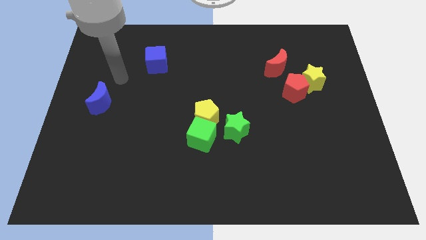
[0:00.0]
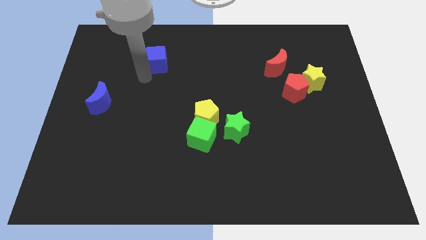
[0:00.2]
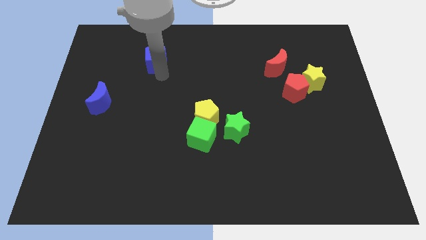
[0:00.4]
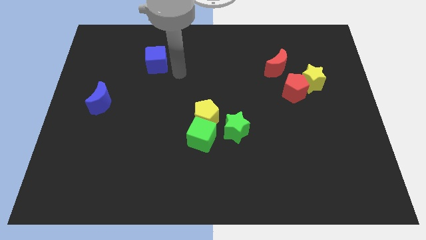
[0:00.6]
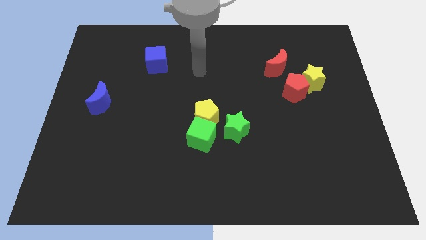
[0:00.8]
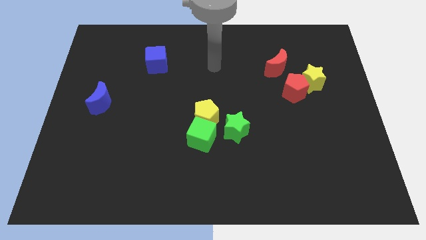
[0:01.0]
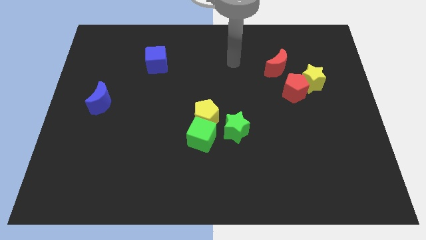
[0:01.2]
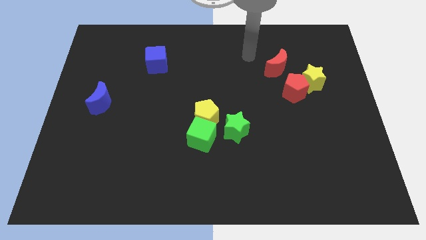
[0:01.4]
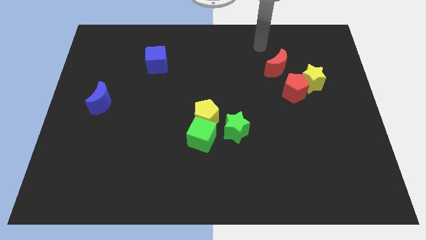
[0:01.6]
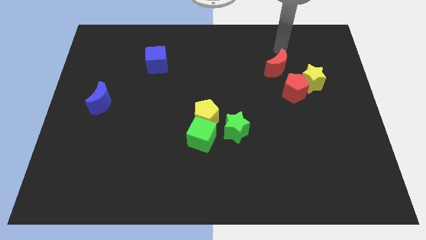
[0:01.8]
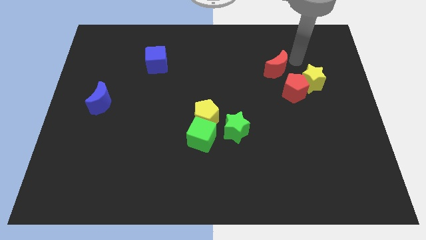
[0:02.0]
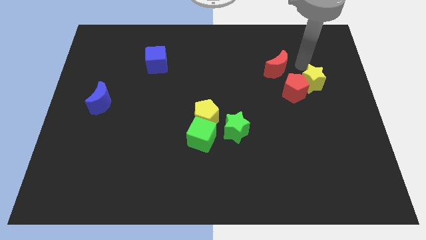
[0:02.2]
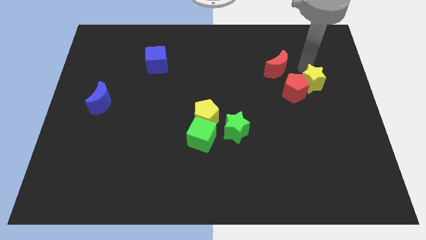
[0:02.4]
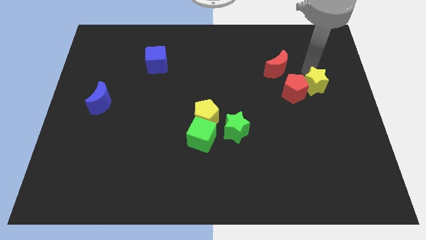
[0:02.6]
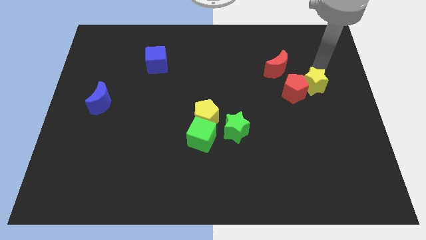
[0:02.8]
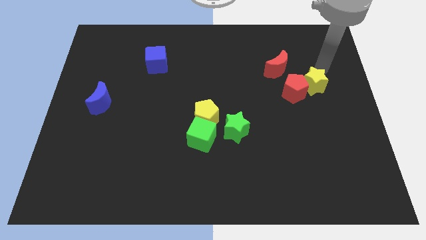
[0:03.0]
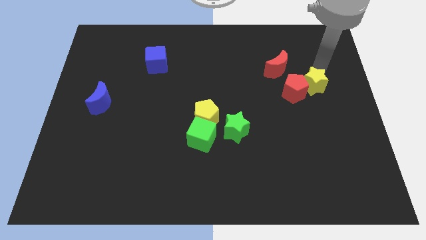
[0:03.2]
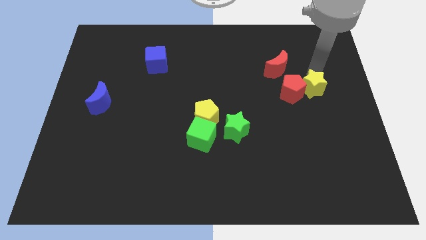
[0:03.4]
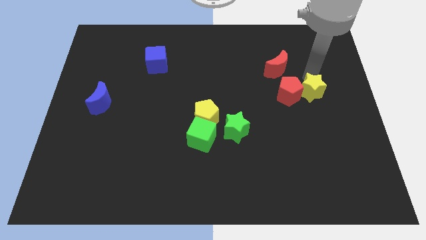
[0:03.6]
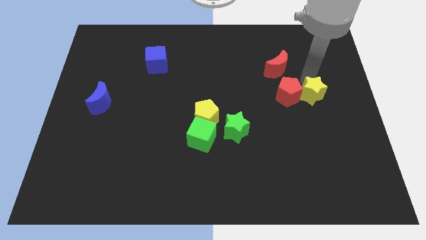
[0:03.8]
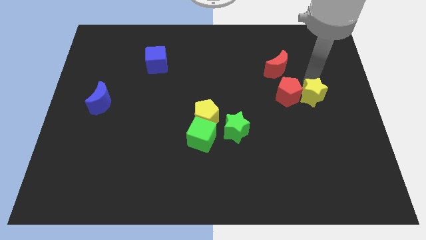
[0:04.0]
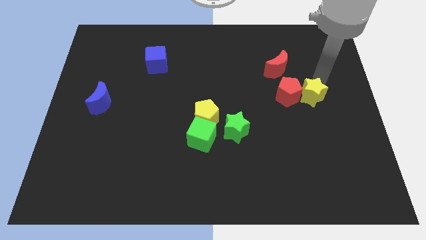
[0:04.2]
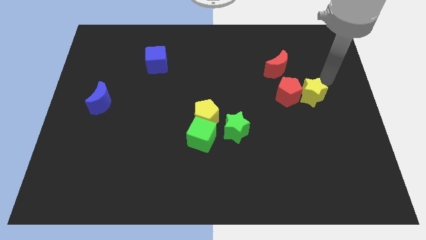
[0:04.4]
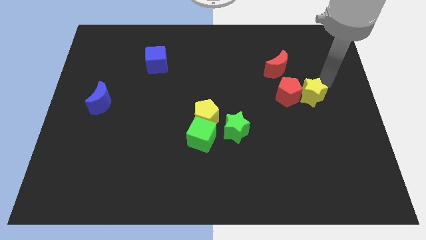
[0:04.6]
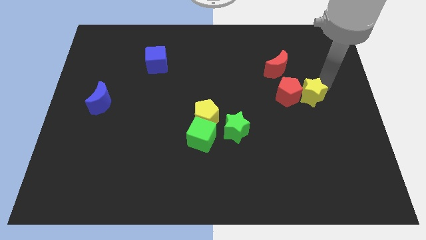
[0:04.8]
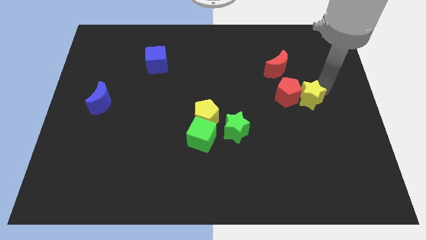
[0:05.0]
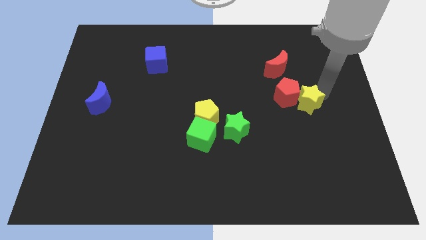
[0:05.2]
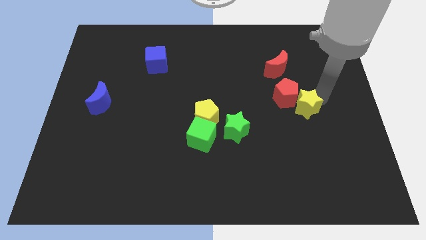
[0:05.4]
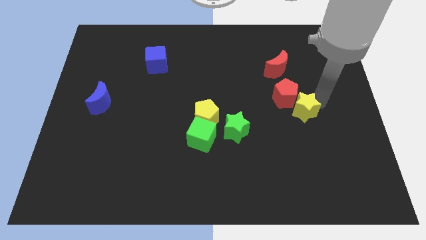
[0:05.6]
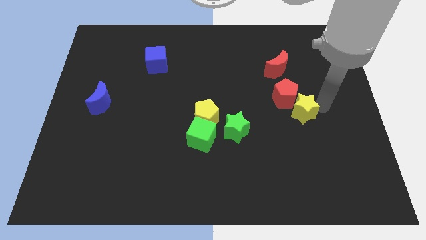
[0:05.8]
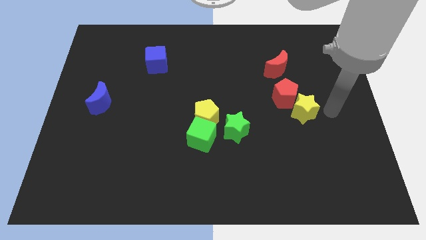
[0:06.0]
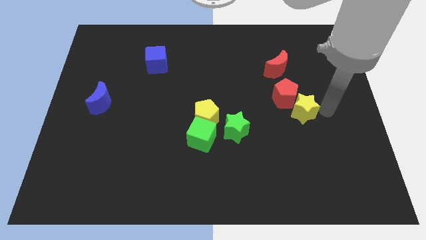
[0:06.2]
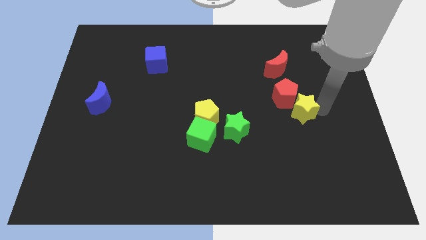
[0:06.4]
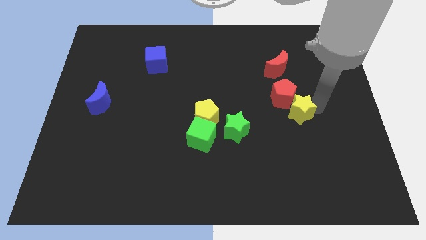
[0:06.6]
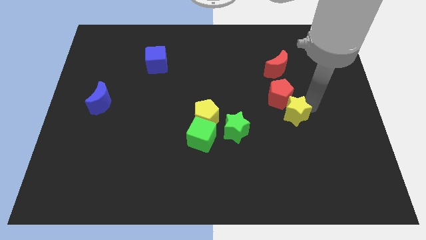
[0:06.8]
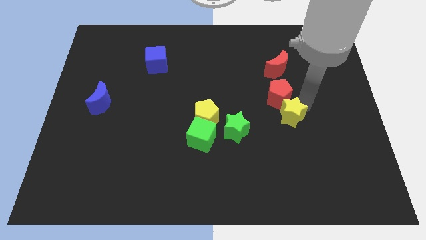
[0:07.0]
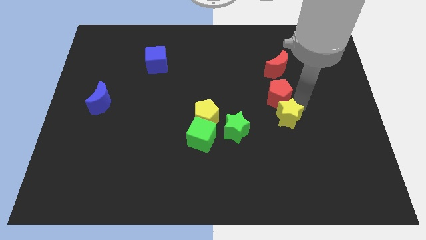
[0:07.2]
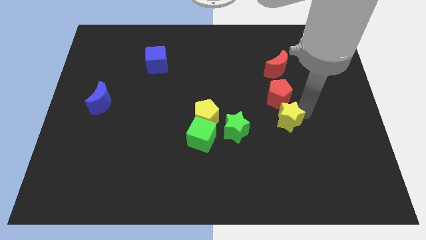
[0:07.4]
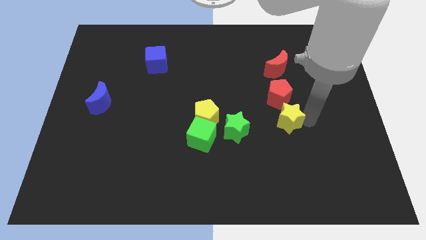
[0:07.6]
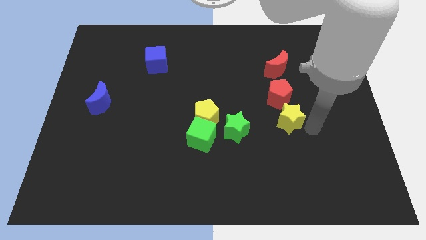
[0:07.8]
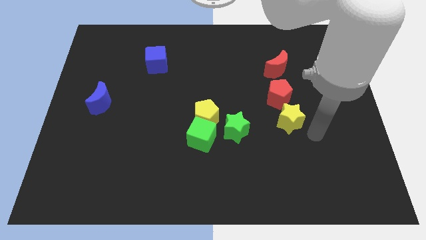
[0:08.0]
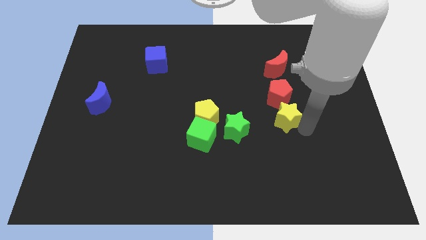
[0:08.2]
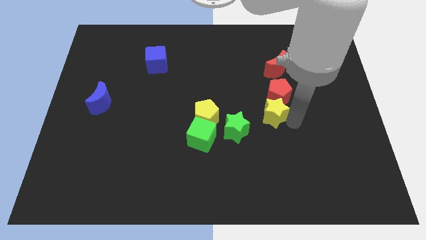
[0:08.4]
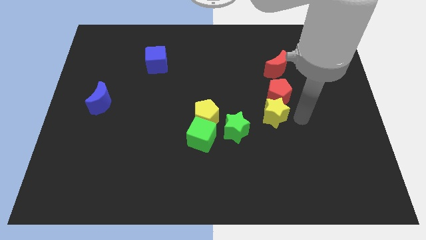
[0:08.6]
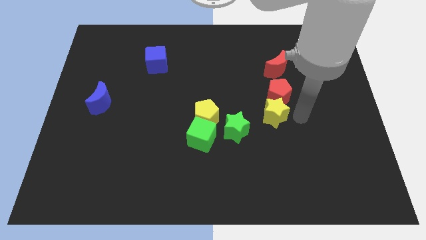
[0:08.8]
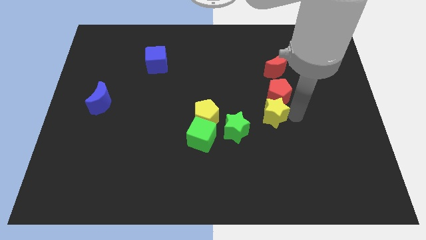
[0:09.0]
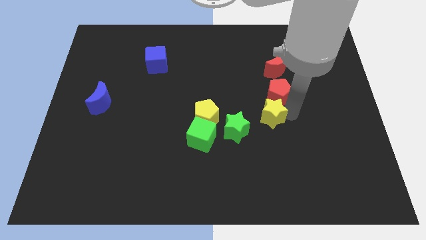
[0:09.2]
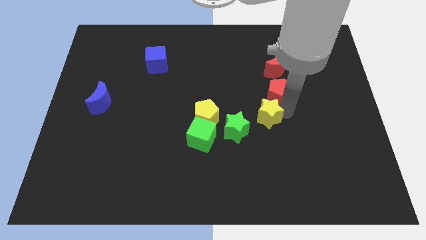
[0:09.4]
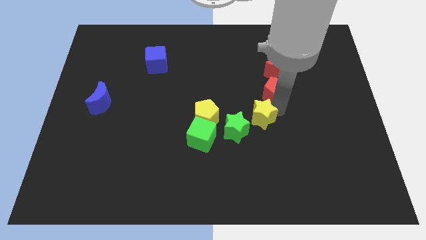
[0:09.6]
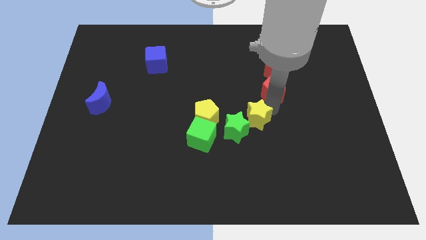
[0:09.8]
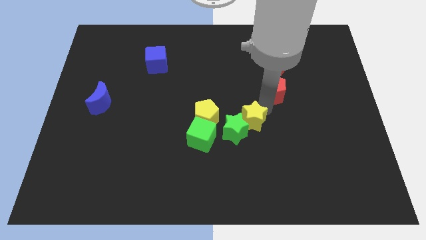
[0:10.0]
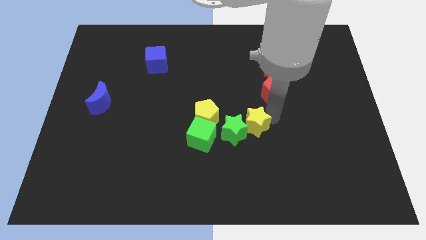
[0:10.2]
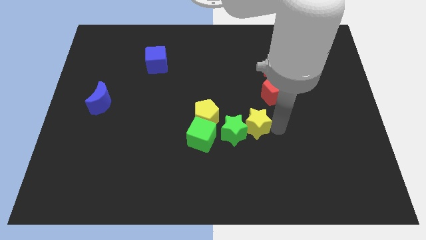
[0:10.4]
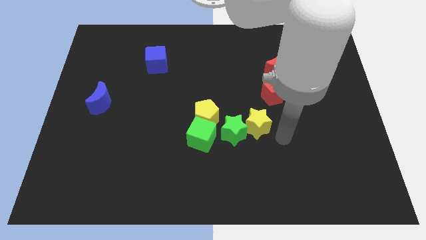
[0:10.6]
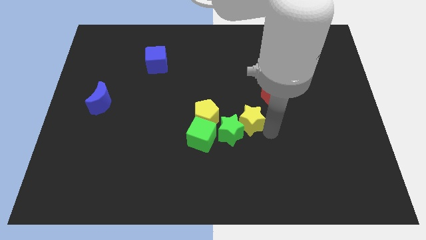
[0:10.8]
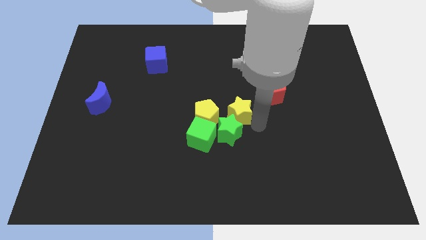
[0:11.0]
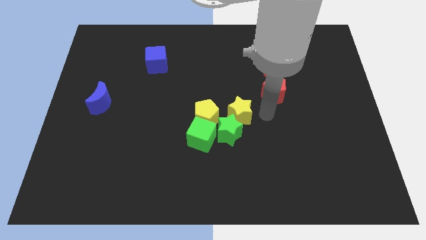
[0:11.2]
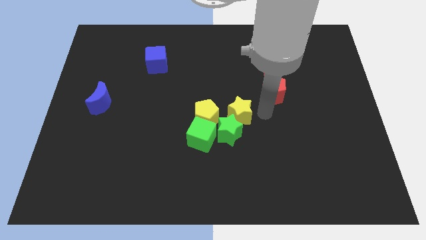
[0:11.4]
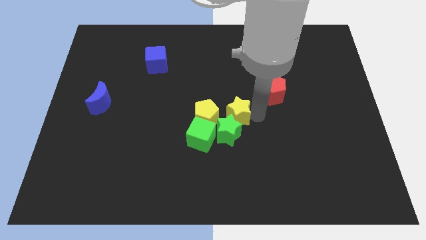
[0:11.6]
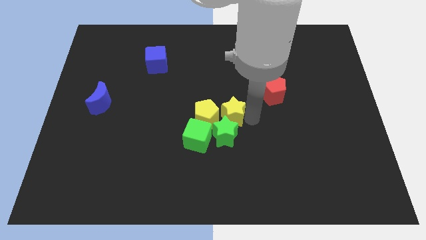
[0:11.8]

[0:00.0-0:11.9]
slide the yellow star to the yellow pentagon

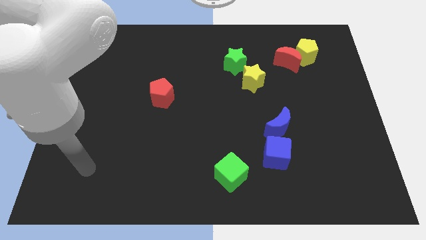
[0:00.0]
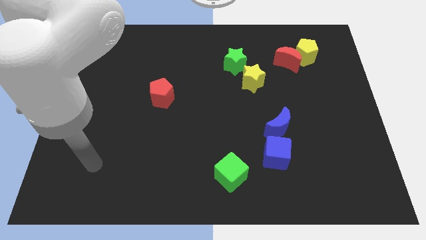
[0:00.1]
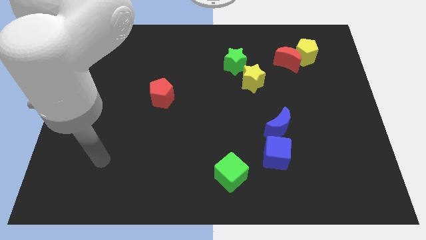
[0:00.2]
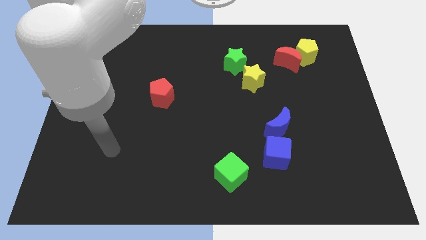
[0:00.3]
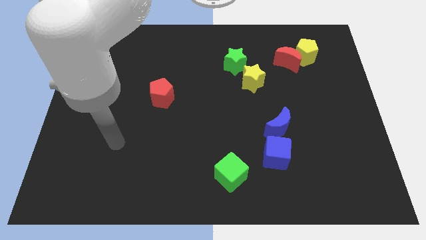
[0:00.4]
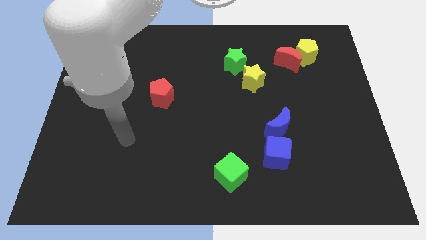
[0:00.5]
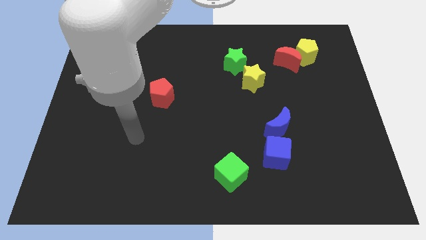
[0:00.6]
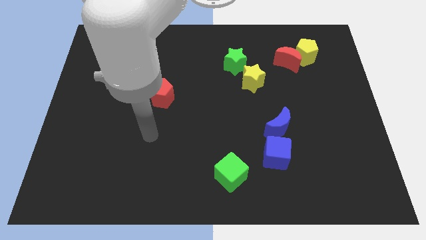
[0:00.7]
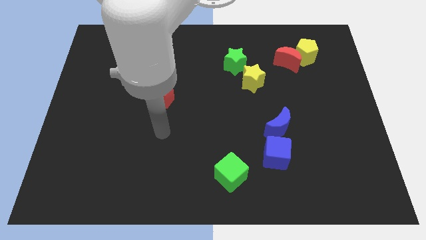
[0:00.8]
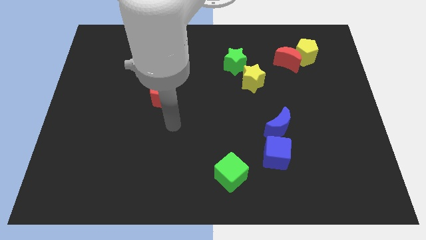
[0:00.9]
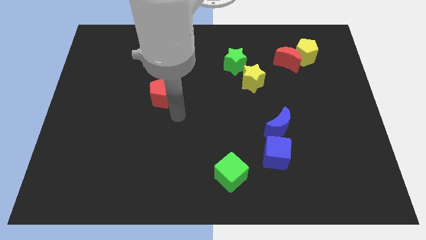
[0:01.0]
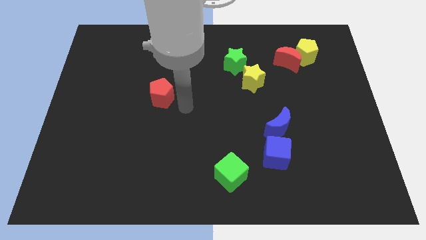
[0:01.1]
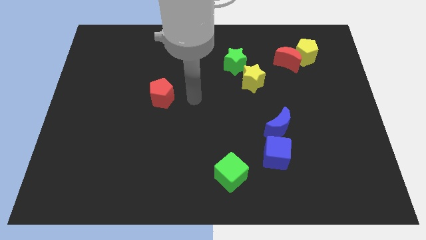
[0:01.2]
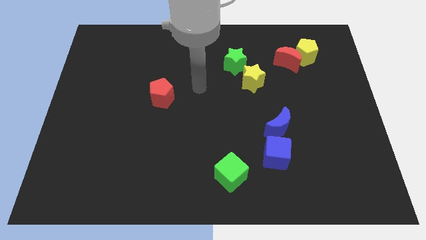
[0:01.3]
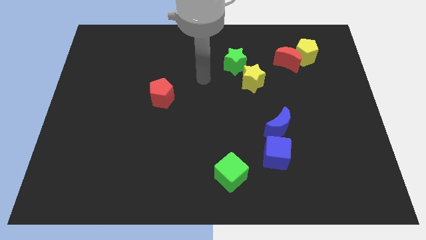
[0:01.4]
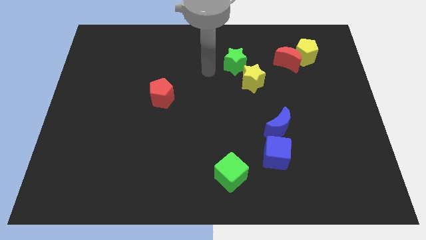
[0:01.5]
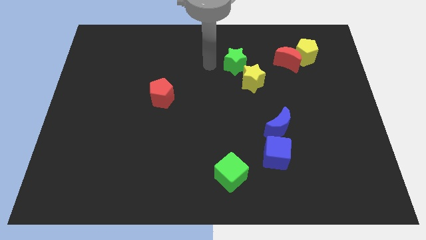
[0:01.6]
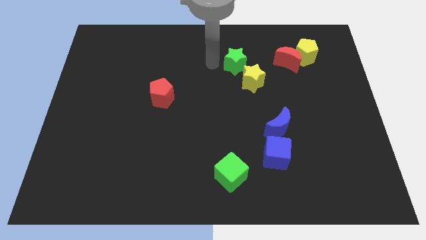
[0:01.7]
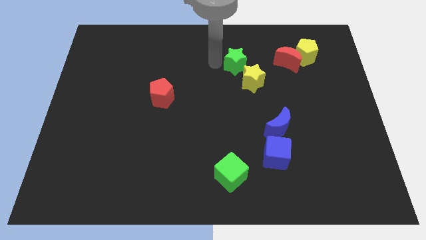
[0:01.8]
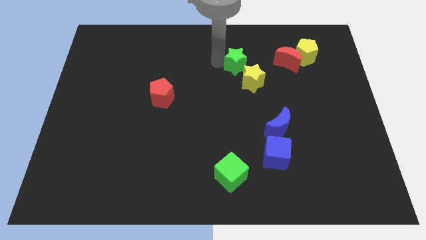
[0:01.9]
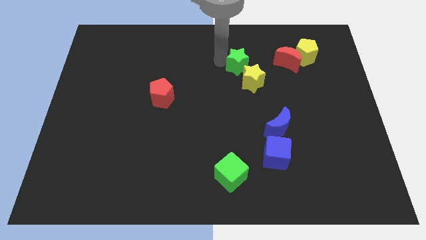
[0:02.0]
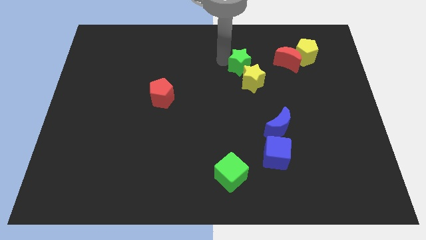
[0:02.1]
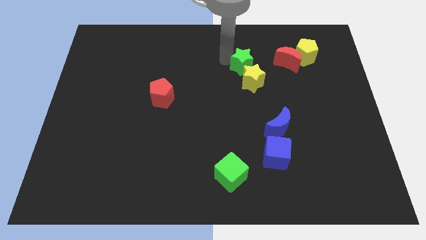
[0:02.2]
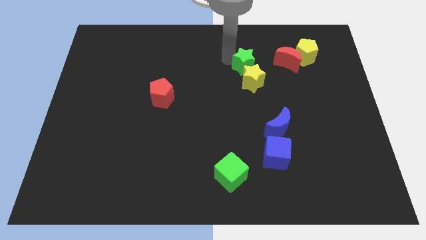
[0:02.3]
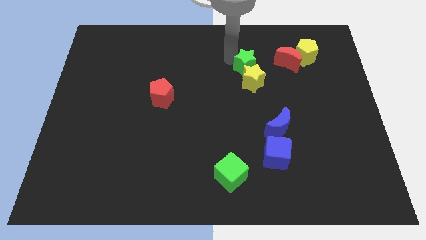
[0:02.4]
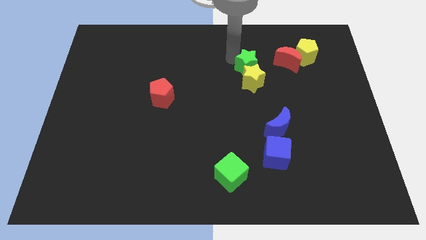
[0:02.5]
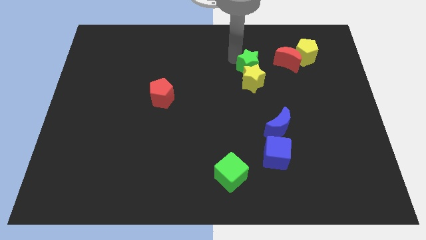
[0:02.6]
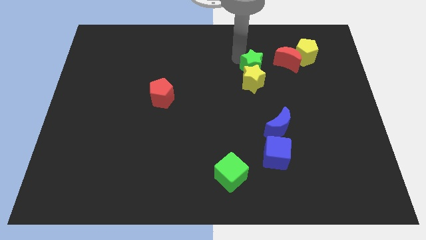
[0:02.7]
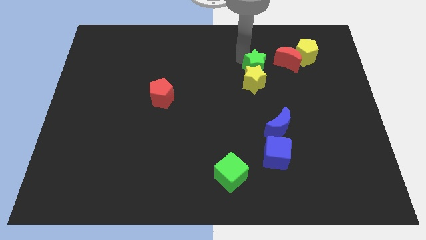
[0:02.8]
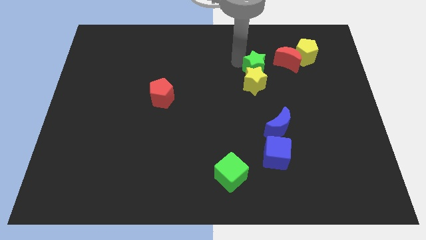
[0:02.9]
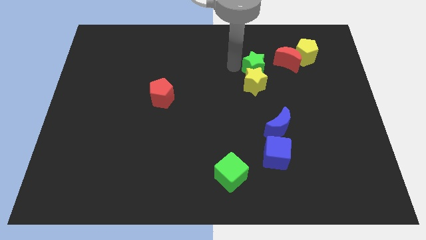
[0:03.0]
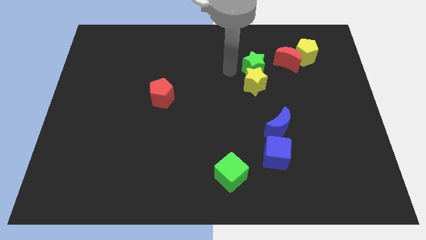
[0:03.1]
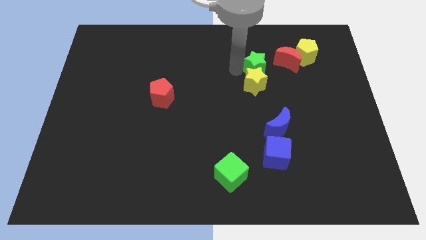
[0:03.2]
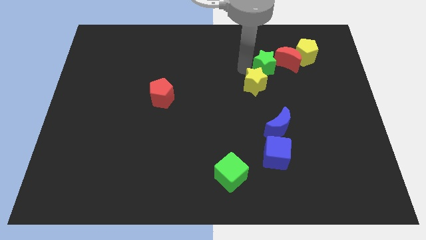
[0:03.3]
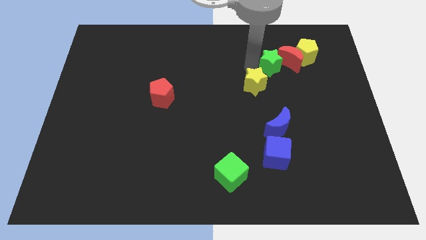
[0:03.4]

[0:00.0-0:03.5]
move the green star towards the red moon
